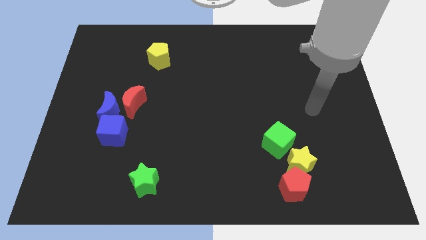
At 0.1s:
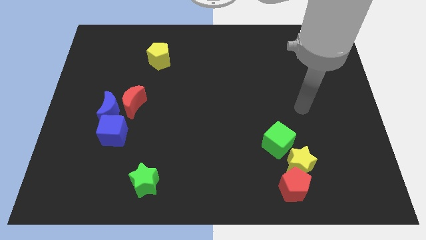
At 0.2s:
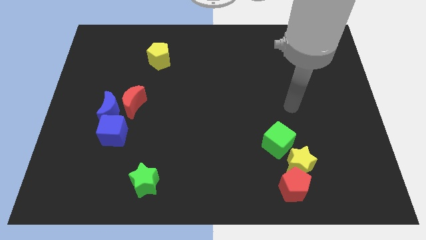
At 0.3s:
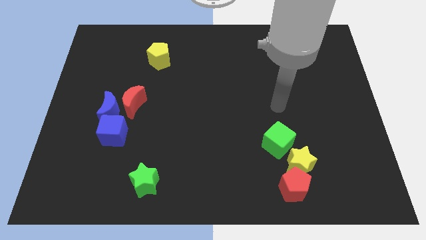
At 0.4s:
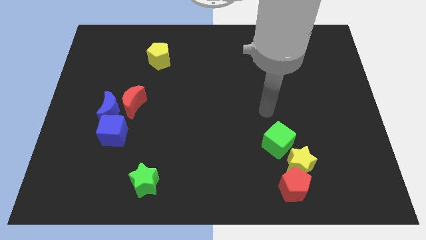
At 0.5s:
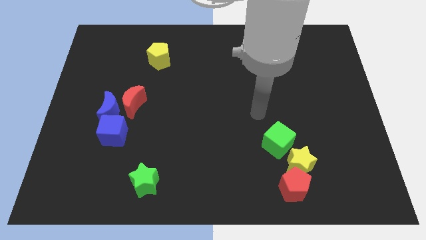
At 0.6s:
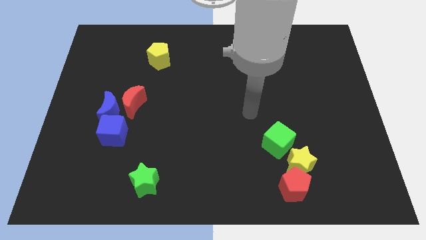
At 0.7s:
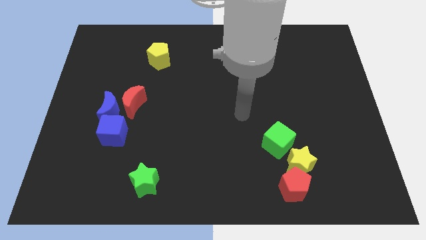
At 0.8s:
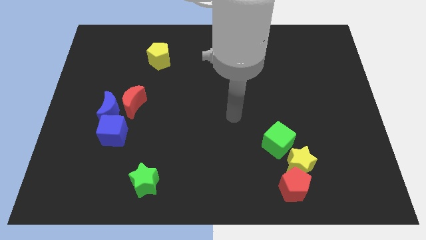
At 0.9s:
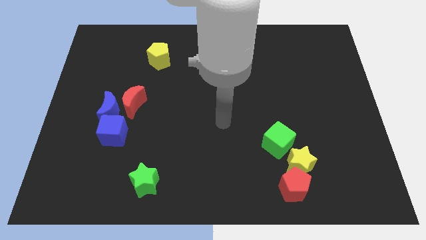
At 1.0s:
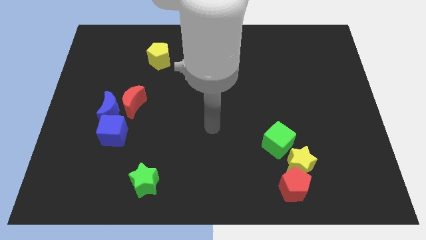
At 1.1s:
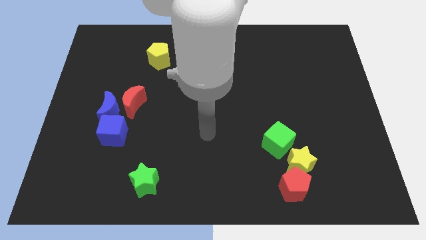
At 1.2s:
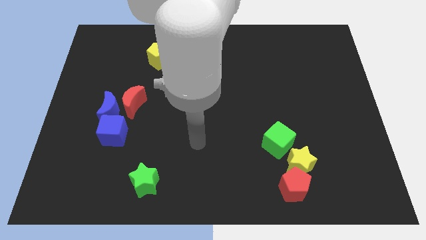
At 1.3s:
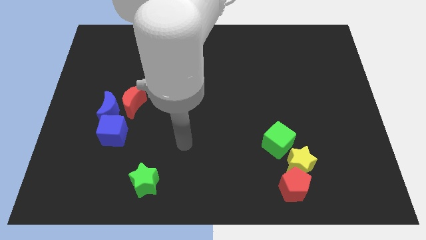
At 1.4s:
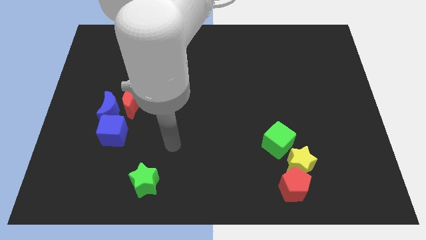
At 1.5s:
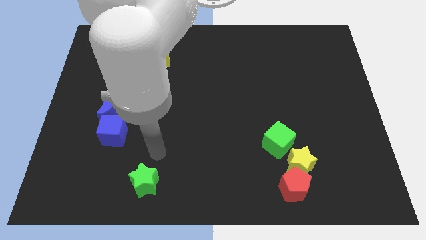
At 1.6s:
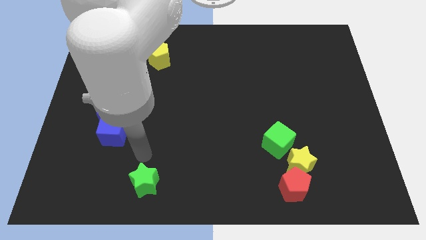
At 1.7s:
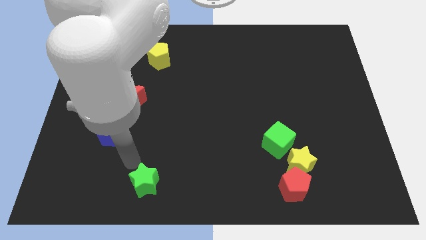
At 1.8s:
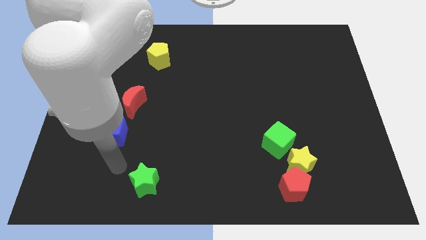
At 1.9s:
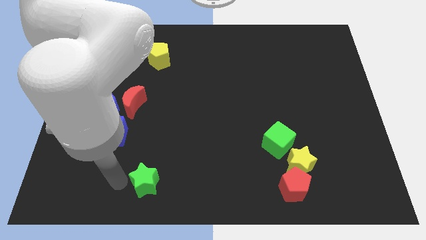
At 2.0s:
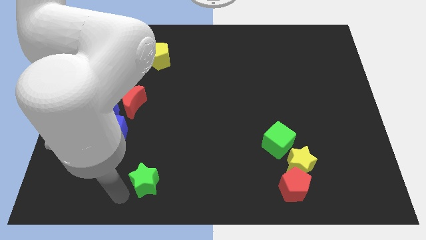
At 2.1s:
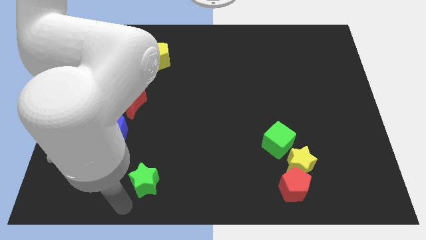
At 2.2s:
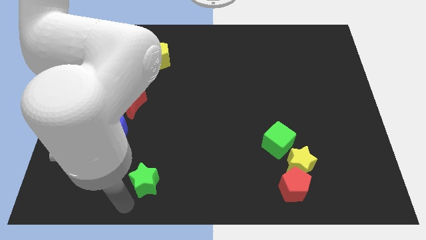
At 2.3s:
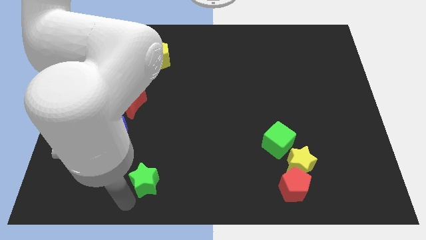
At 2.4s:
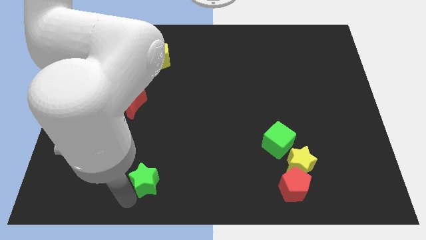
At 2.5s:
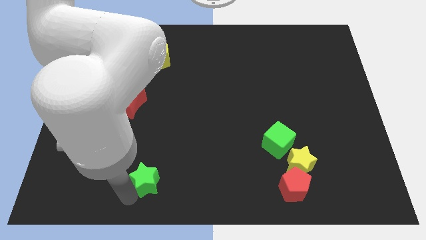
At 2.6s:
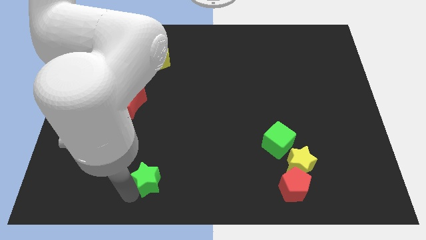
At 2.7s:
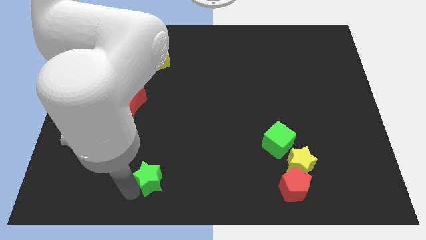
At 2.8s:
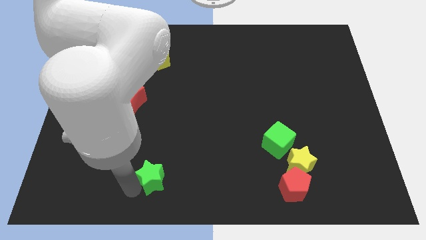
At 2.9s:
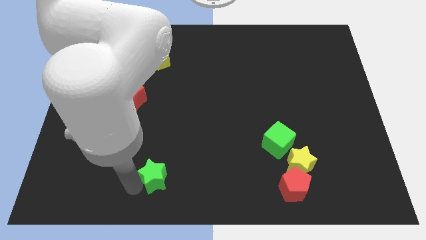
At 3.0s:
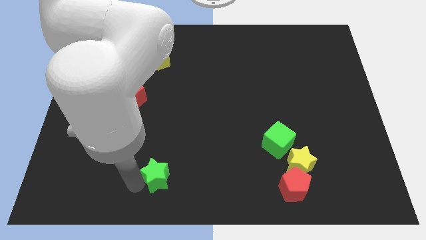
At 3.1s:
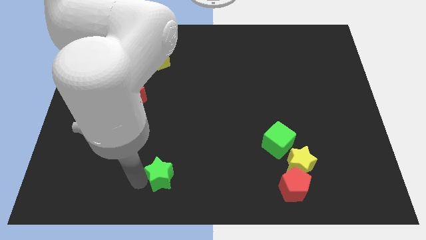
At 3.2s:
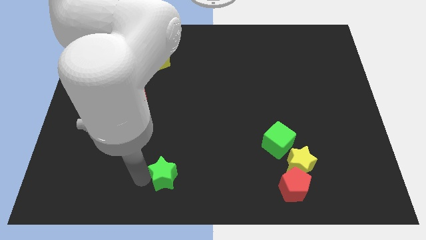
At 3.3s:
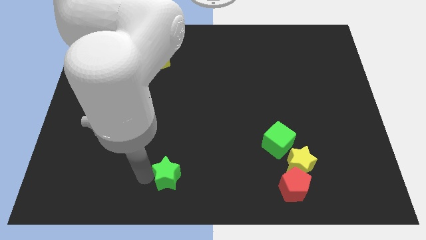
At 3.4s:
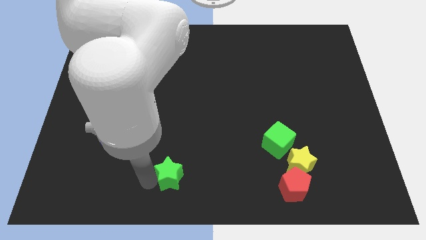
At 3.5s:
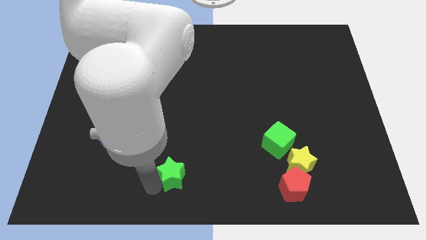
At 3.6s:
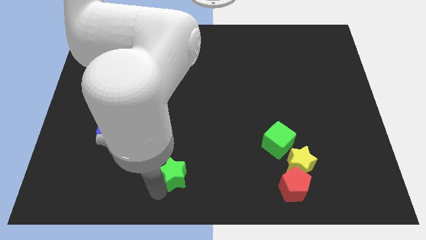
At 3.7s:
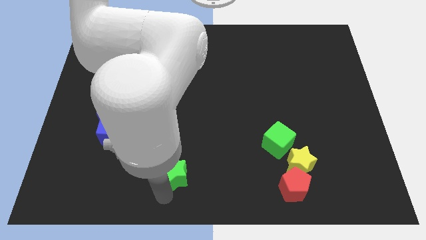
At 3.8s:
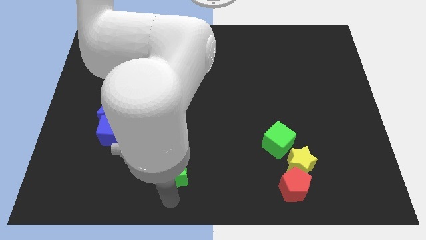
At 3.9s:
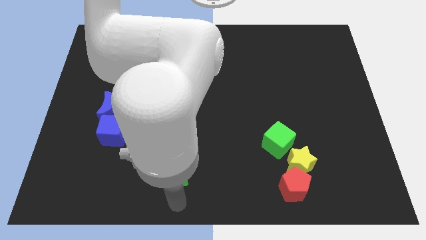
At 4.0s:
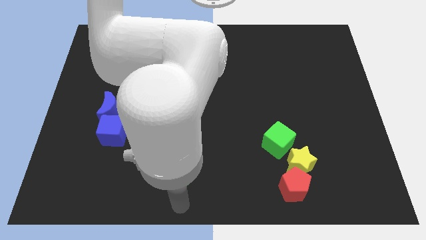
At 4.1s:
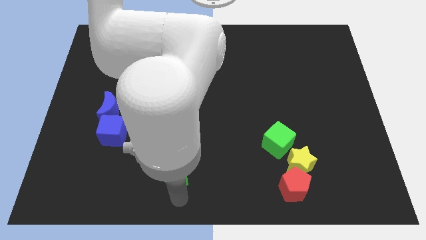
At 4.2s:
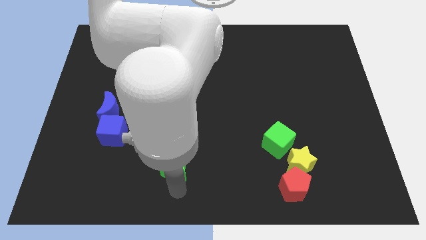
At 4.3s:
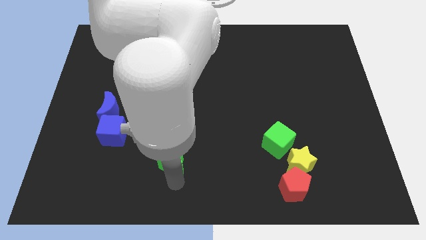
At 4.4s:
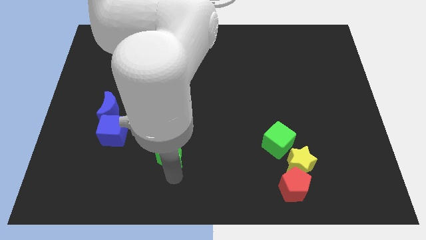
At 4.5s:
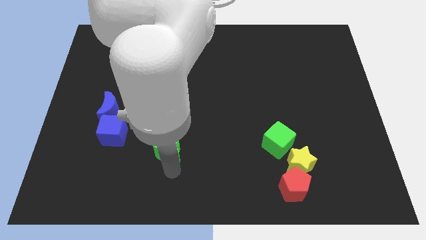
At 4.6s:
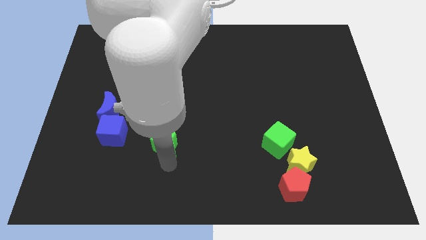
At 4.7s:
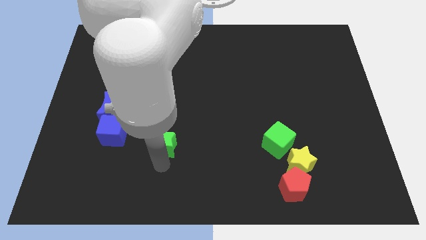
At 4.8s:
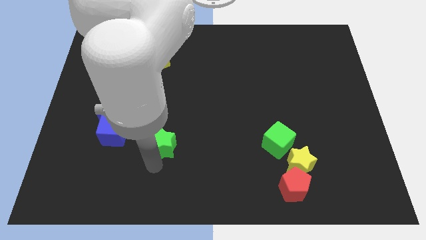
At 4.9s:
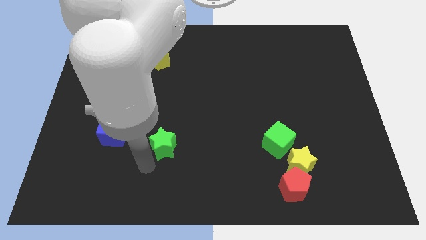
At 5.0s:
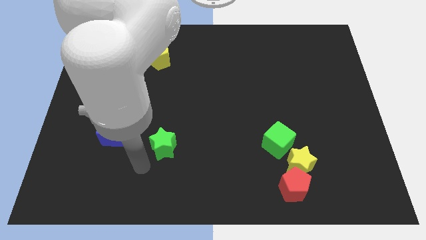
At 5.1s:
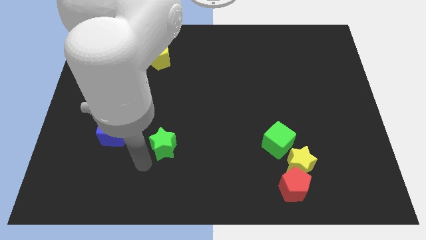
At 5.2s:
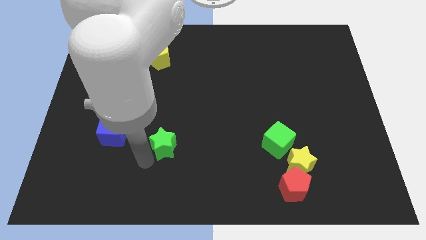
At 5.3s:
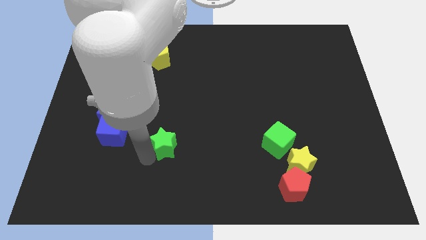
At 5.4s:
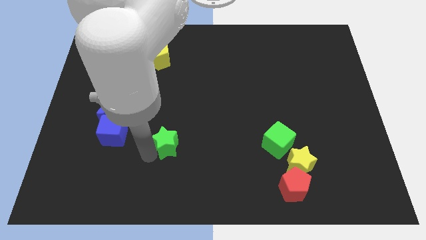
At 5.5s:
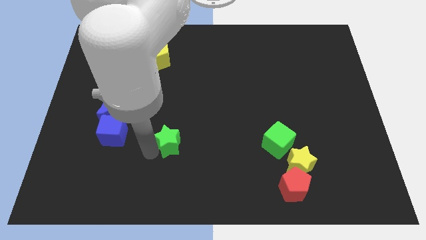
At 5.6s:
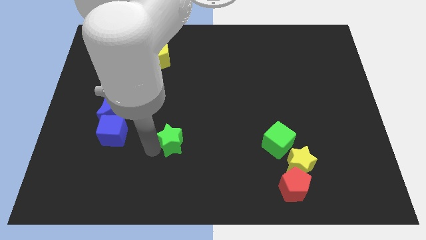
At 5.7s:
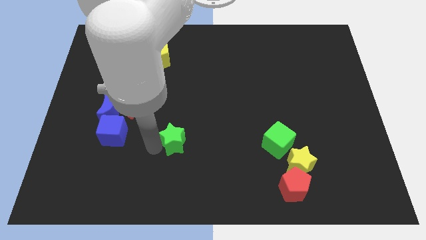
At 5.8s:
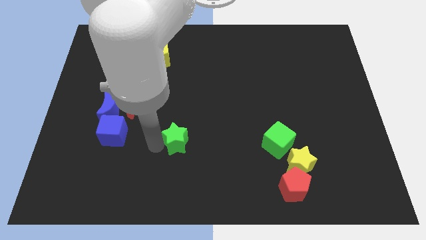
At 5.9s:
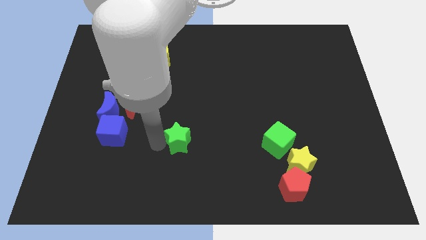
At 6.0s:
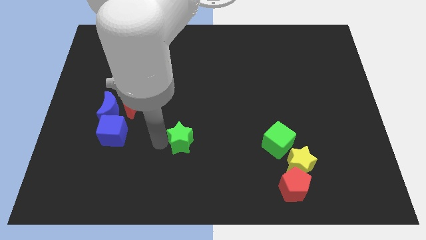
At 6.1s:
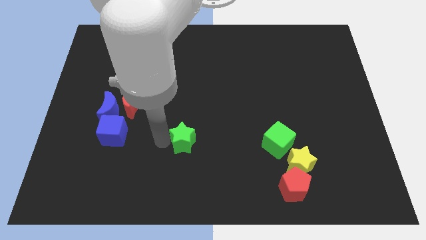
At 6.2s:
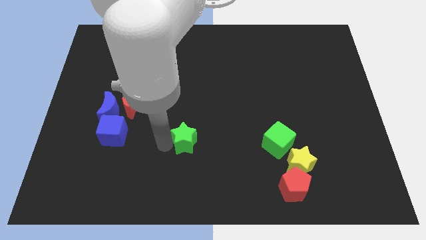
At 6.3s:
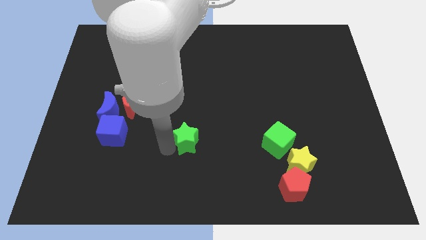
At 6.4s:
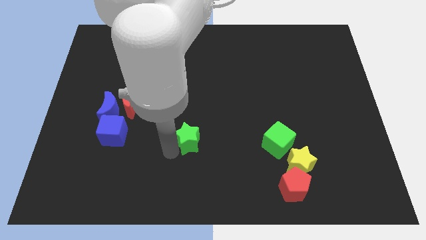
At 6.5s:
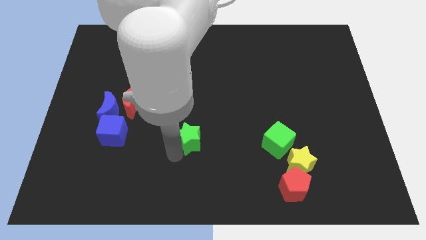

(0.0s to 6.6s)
put the green star to the middle of the board
